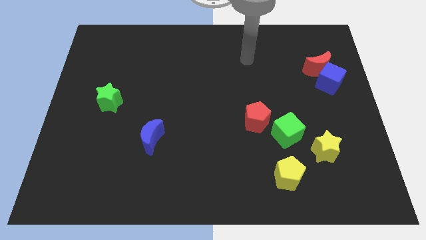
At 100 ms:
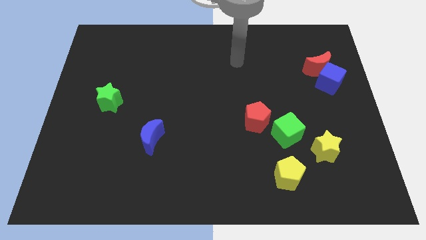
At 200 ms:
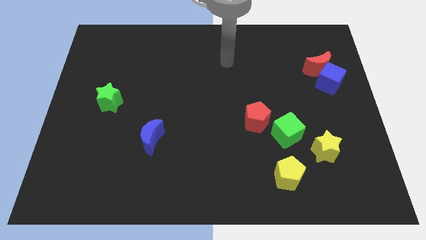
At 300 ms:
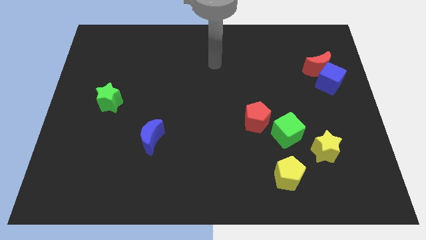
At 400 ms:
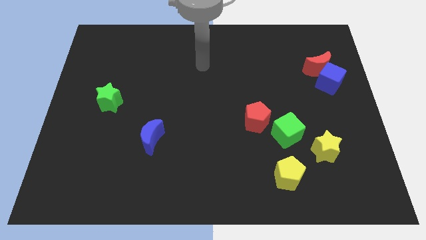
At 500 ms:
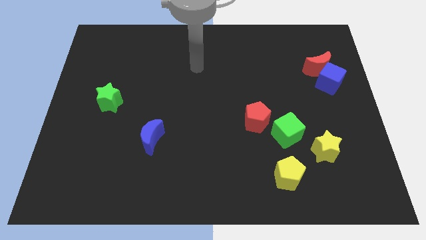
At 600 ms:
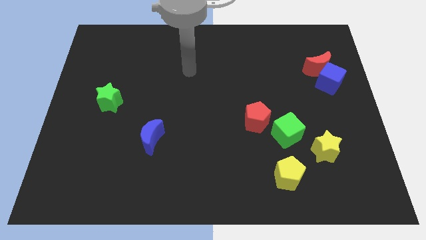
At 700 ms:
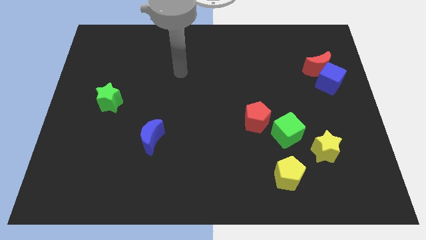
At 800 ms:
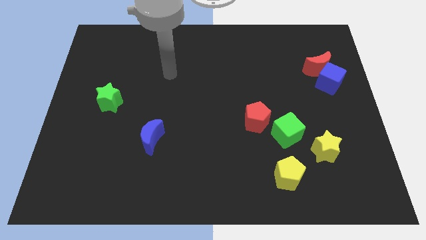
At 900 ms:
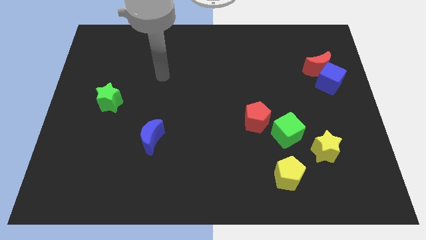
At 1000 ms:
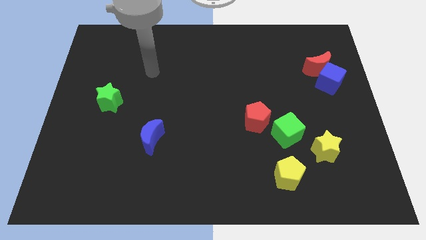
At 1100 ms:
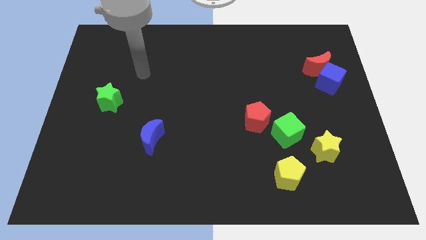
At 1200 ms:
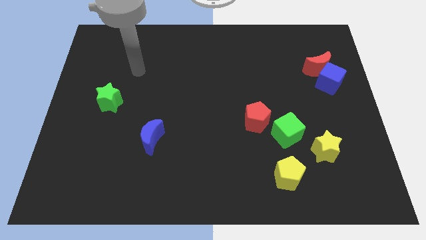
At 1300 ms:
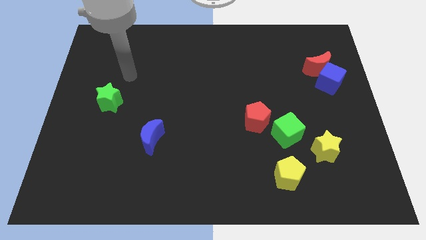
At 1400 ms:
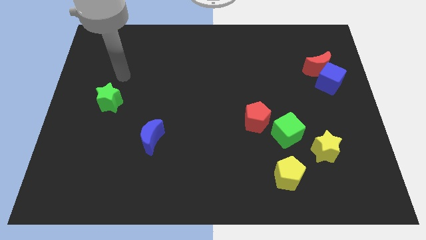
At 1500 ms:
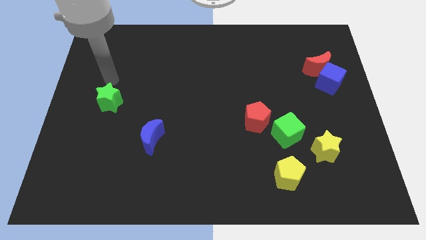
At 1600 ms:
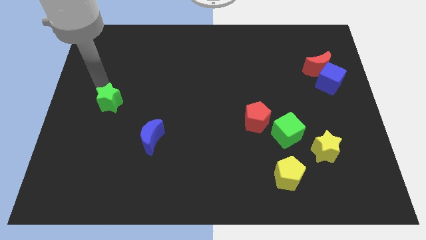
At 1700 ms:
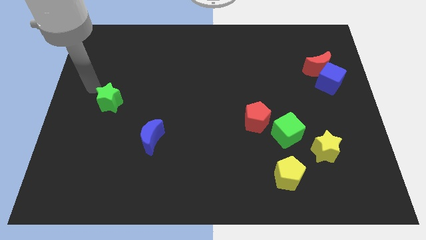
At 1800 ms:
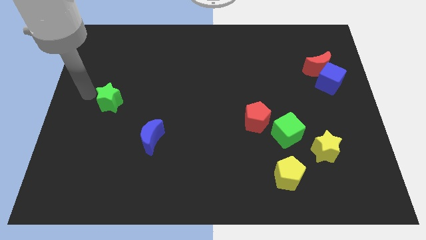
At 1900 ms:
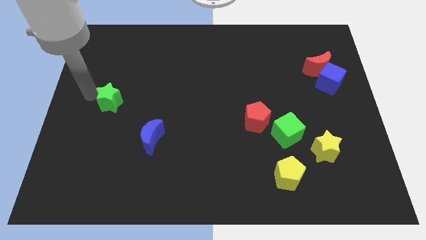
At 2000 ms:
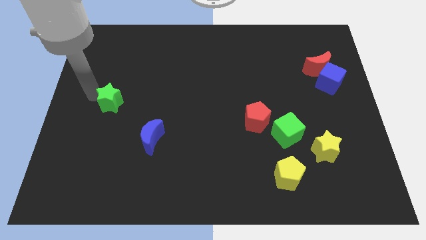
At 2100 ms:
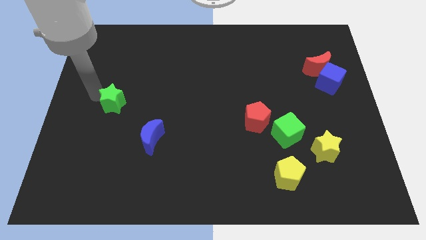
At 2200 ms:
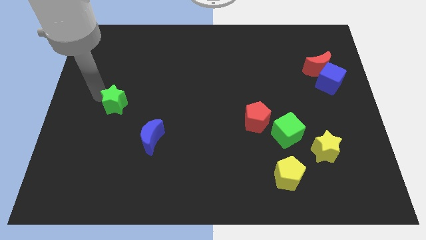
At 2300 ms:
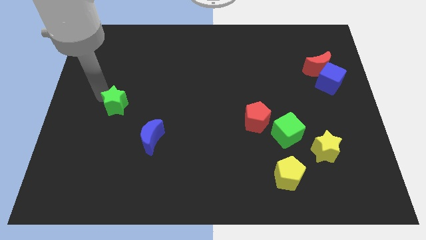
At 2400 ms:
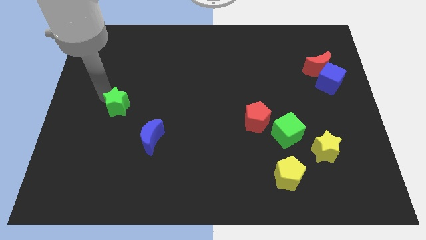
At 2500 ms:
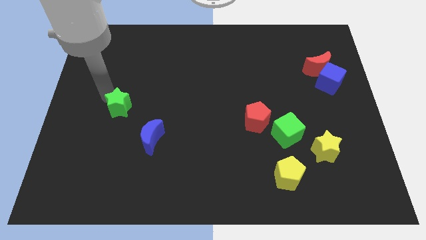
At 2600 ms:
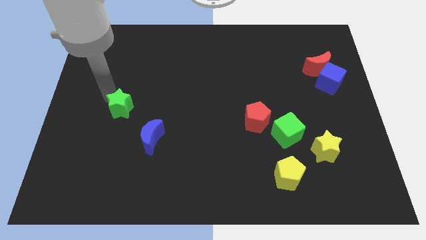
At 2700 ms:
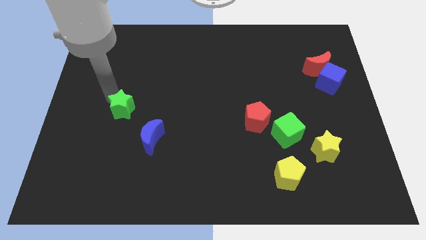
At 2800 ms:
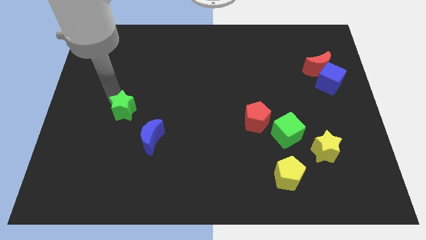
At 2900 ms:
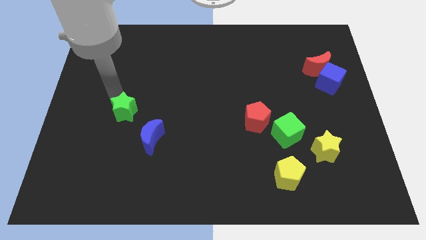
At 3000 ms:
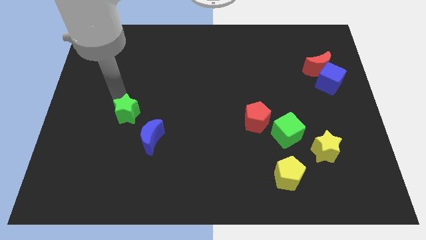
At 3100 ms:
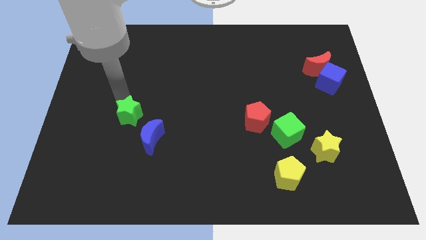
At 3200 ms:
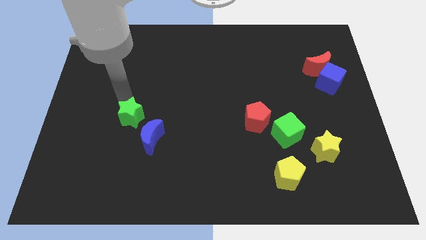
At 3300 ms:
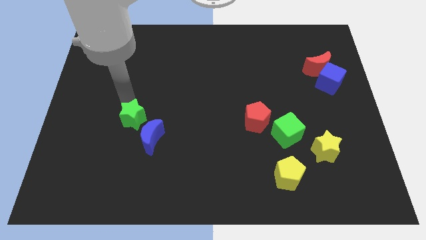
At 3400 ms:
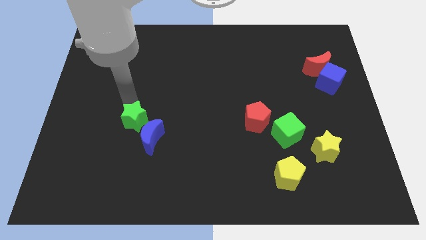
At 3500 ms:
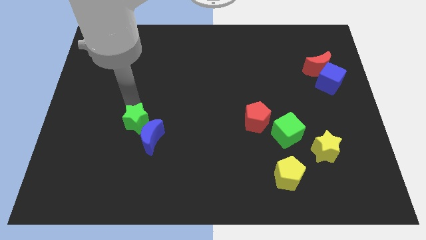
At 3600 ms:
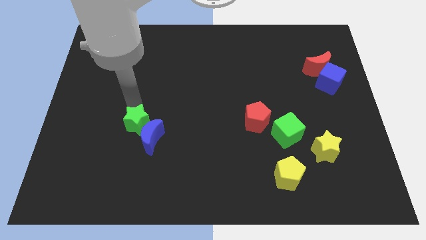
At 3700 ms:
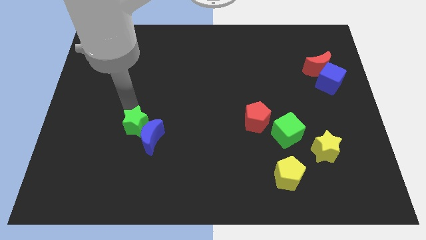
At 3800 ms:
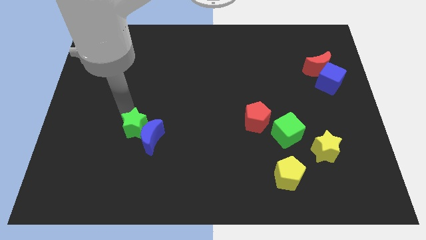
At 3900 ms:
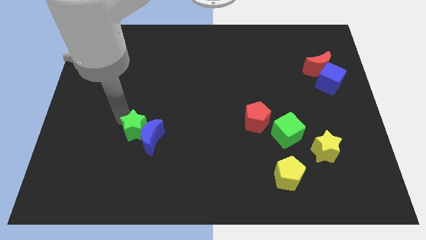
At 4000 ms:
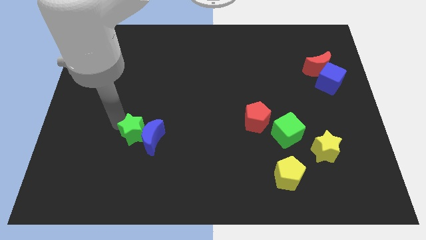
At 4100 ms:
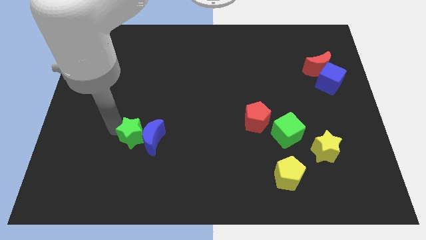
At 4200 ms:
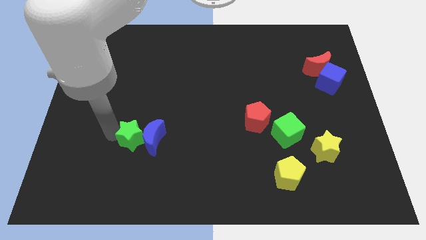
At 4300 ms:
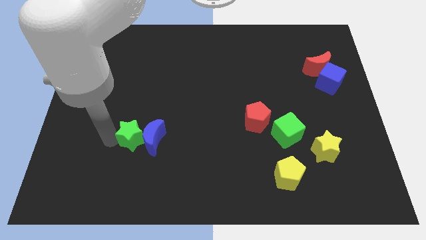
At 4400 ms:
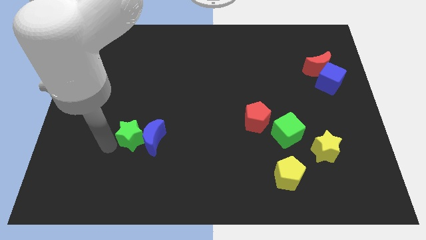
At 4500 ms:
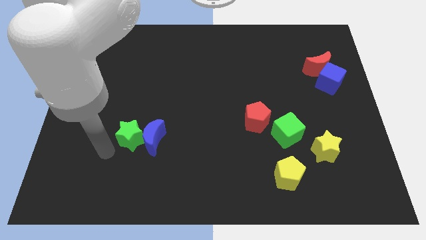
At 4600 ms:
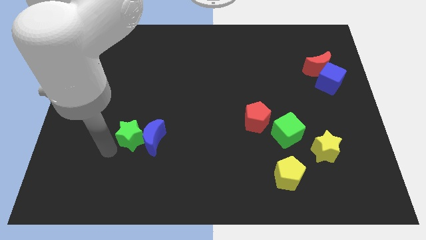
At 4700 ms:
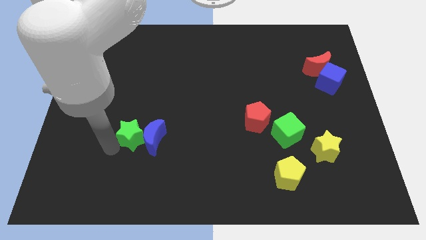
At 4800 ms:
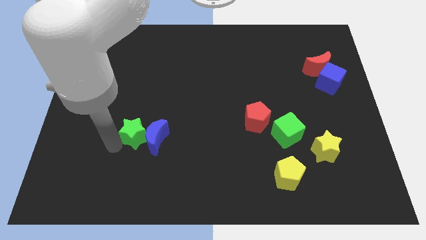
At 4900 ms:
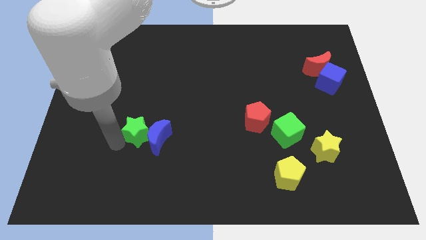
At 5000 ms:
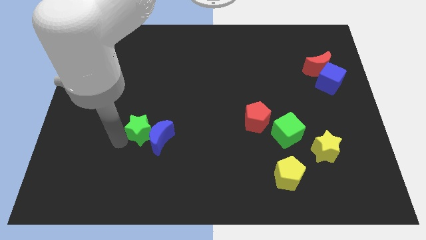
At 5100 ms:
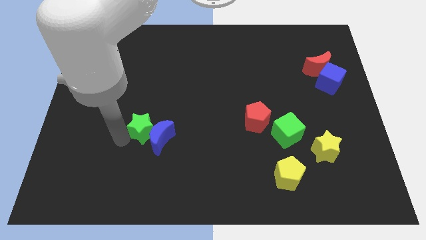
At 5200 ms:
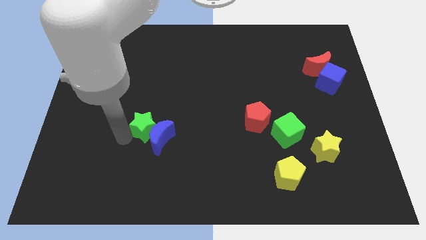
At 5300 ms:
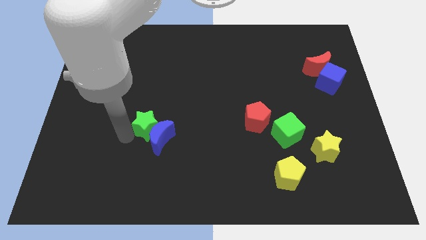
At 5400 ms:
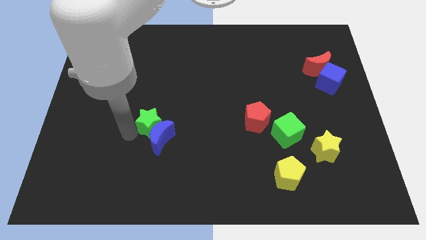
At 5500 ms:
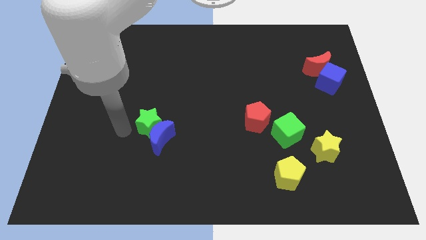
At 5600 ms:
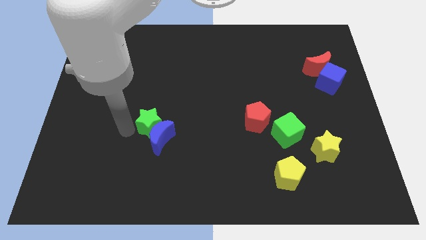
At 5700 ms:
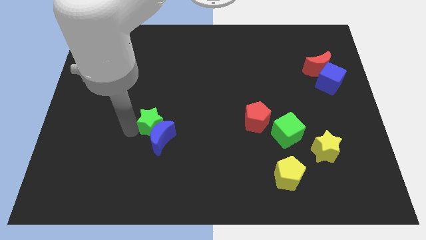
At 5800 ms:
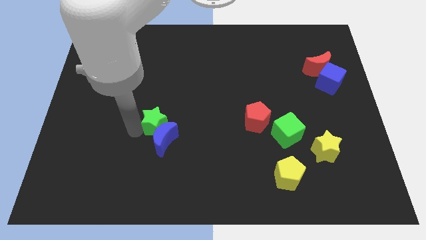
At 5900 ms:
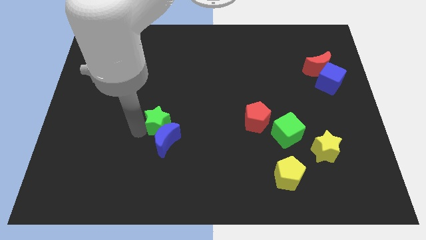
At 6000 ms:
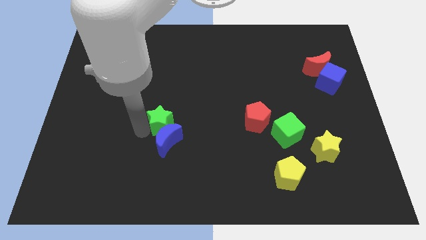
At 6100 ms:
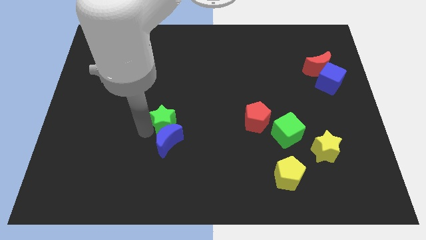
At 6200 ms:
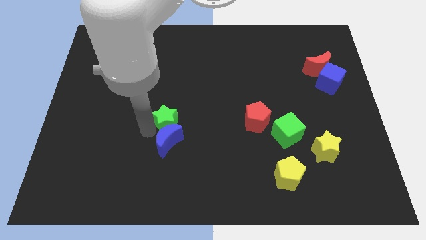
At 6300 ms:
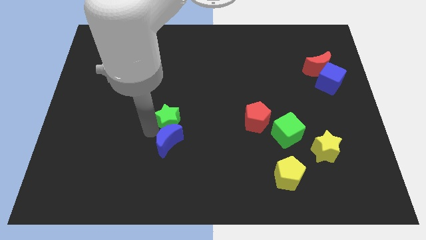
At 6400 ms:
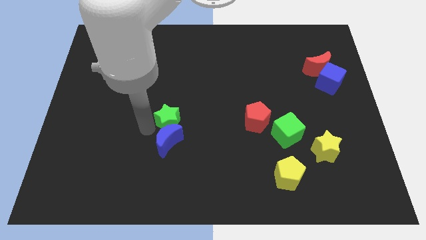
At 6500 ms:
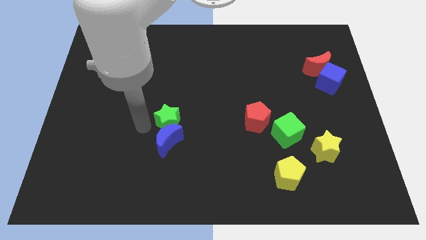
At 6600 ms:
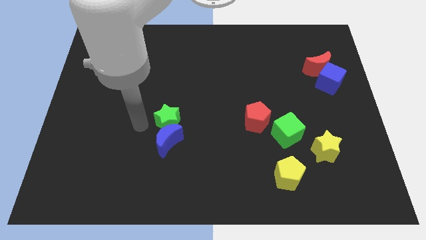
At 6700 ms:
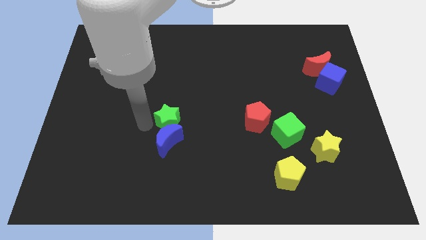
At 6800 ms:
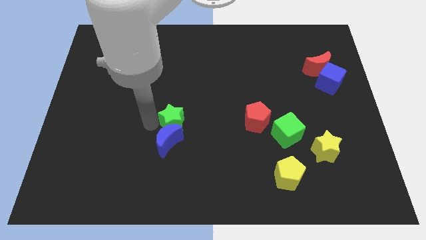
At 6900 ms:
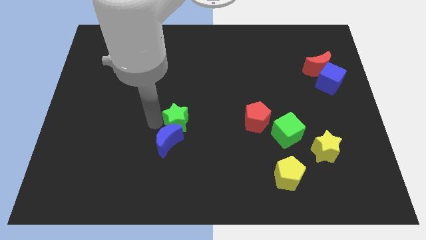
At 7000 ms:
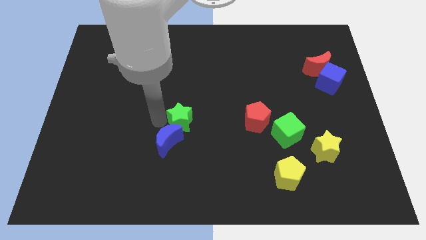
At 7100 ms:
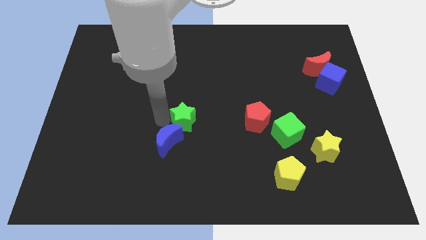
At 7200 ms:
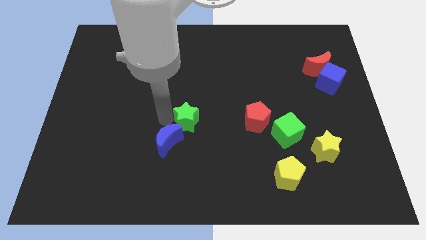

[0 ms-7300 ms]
slide the green star left of the red pentagon

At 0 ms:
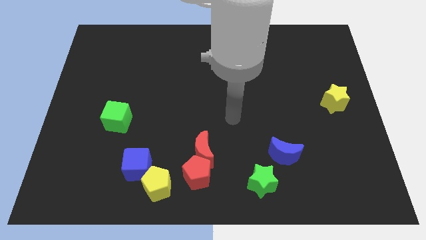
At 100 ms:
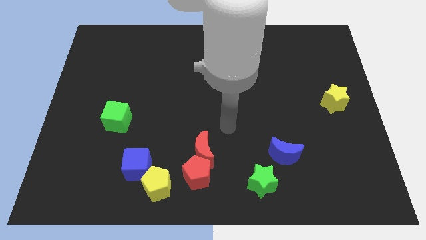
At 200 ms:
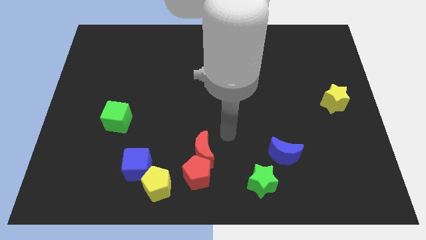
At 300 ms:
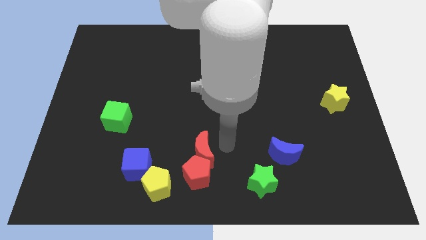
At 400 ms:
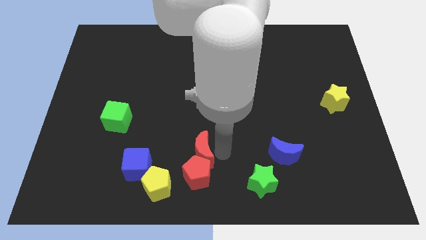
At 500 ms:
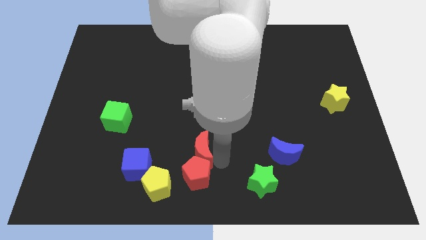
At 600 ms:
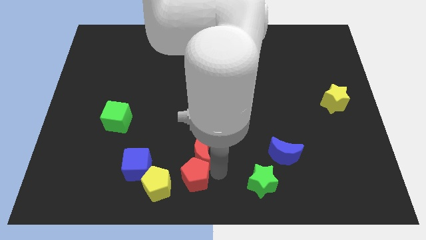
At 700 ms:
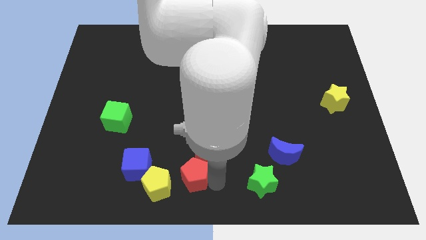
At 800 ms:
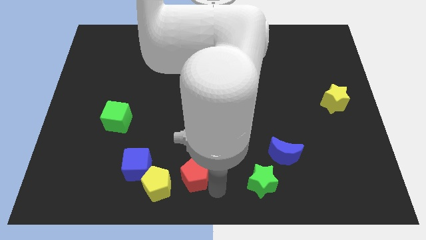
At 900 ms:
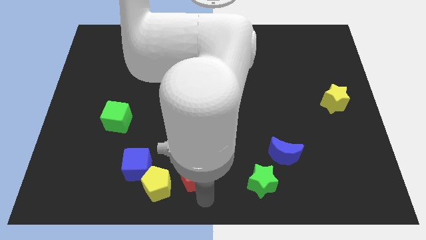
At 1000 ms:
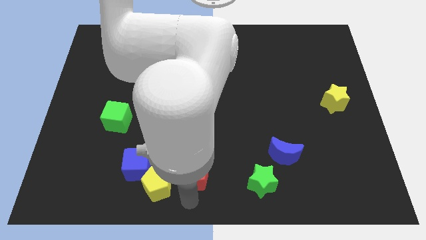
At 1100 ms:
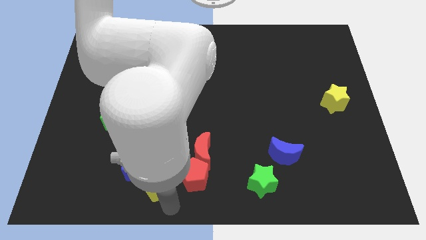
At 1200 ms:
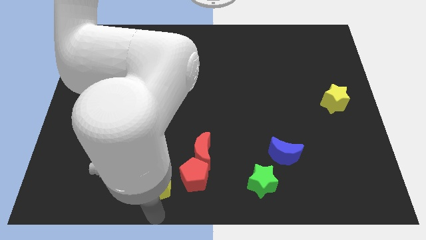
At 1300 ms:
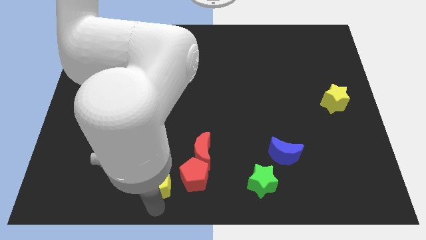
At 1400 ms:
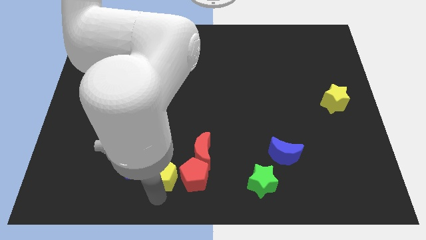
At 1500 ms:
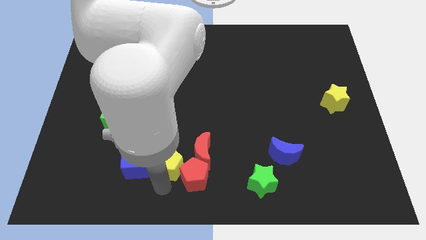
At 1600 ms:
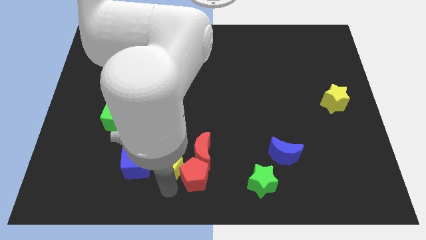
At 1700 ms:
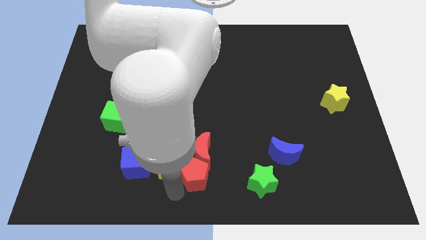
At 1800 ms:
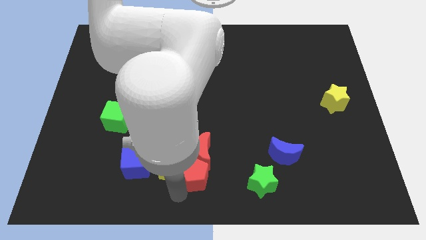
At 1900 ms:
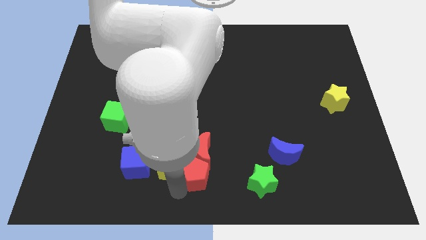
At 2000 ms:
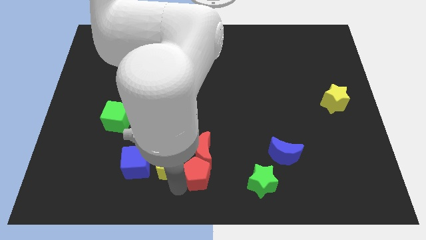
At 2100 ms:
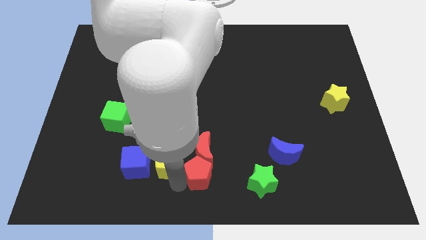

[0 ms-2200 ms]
push the yellow pentagon to the top right of the blue cube
